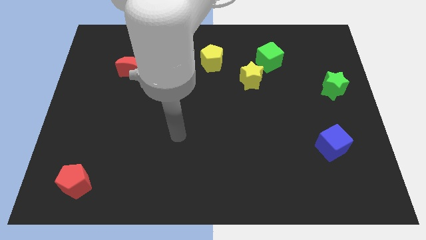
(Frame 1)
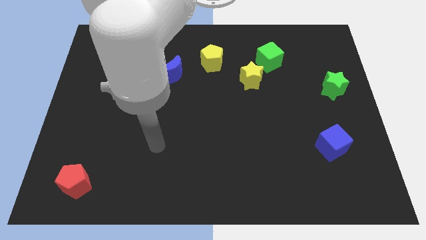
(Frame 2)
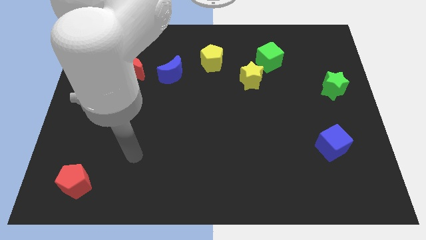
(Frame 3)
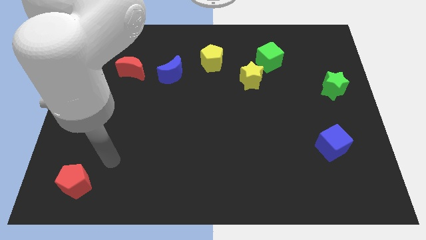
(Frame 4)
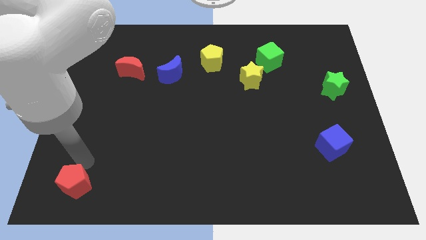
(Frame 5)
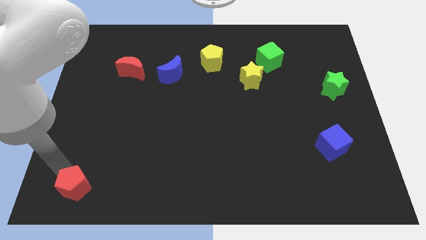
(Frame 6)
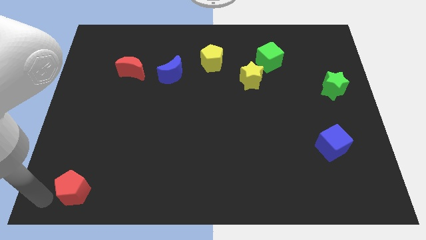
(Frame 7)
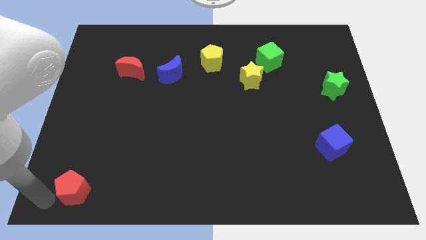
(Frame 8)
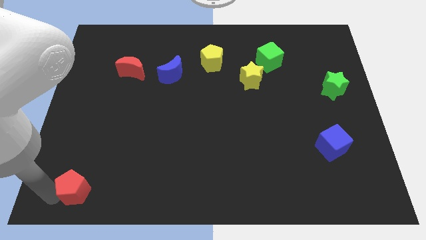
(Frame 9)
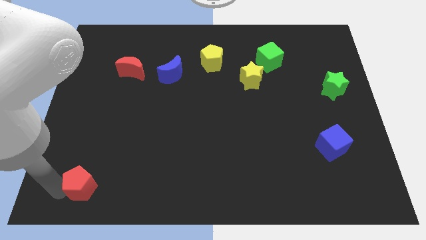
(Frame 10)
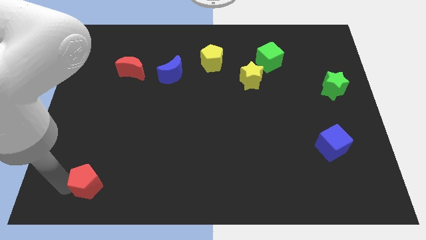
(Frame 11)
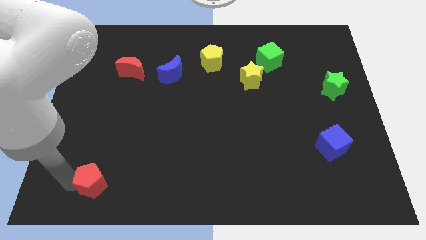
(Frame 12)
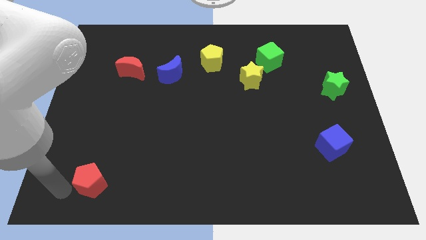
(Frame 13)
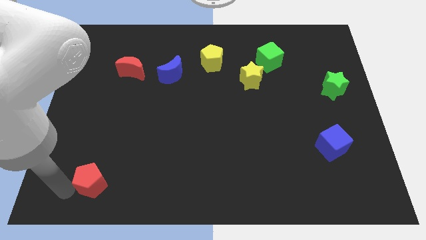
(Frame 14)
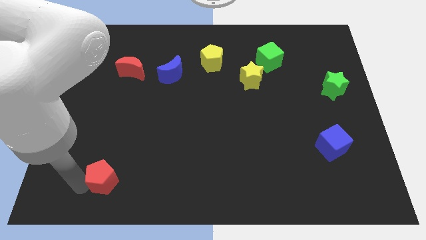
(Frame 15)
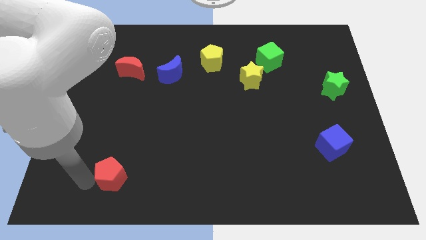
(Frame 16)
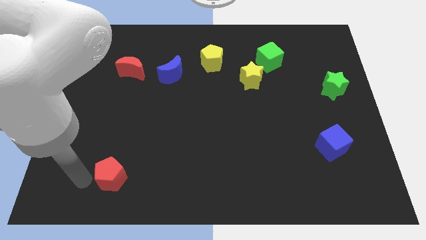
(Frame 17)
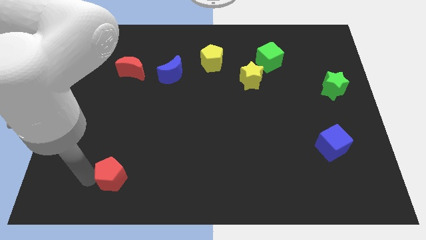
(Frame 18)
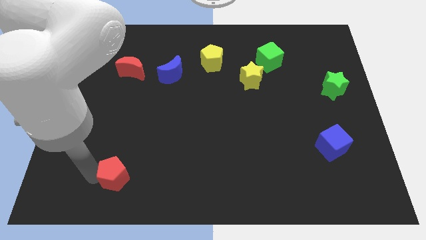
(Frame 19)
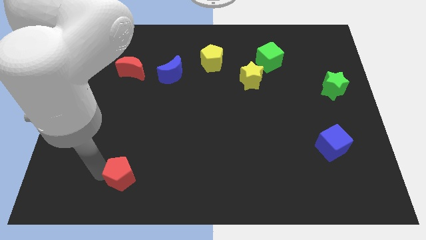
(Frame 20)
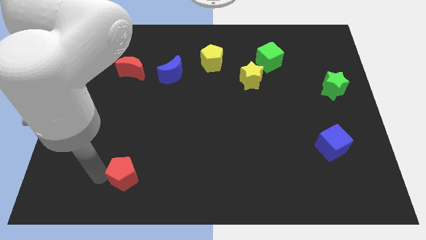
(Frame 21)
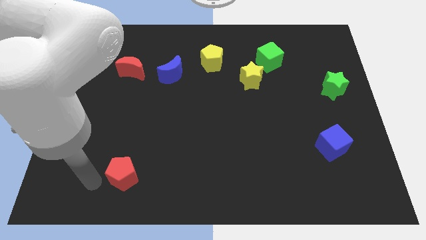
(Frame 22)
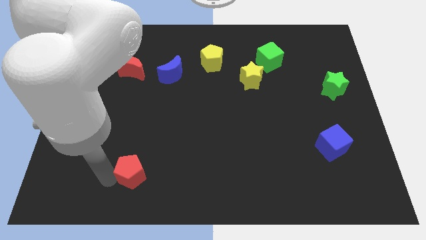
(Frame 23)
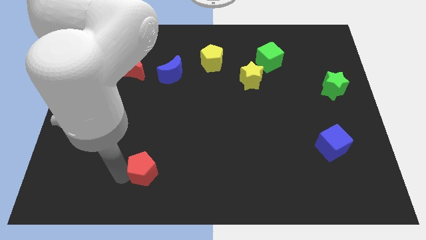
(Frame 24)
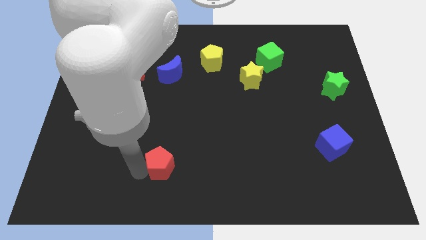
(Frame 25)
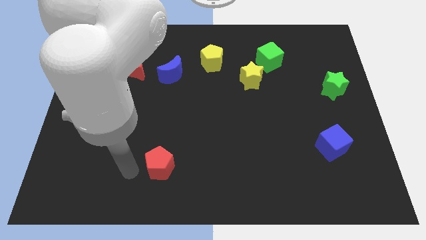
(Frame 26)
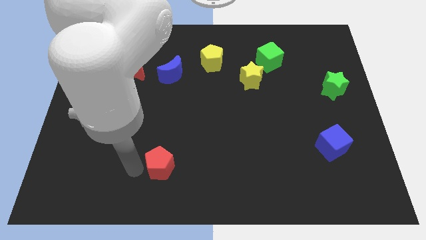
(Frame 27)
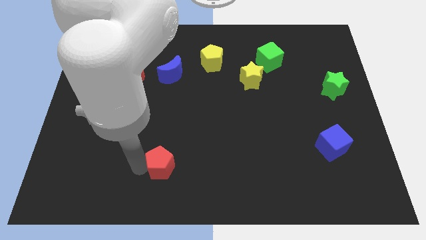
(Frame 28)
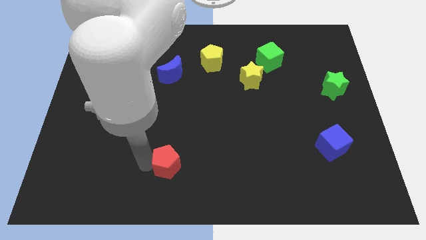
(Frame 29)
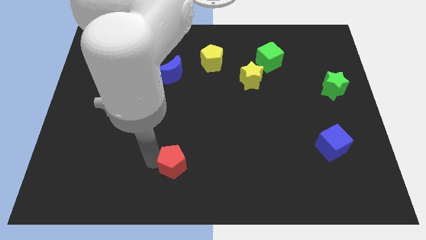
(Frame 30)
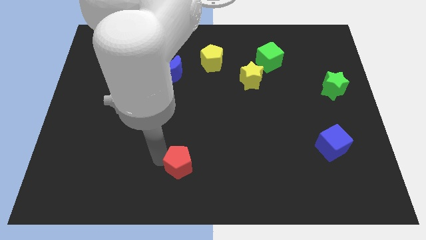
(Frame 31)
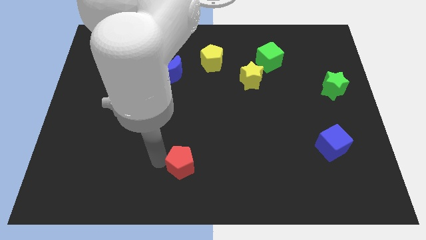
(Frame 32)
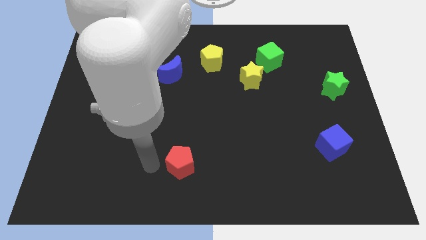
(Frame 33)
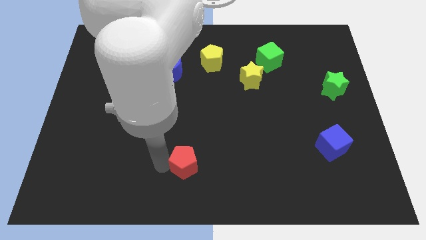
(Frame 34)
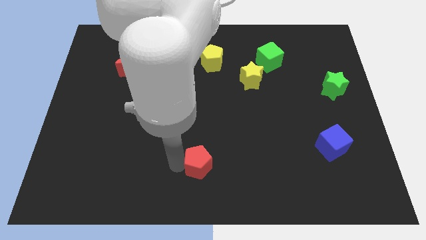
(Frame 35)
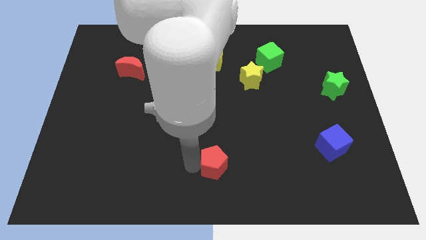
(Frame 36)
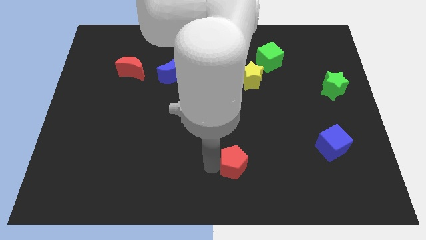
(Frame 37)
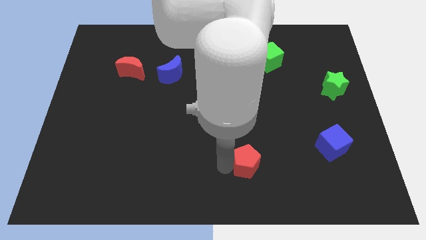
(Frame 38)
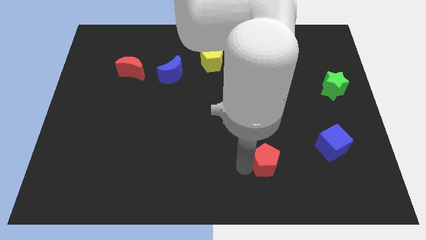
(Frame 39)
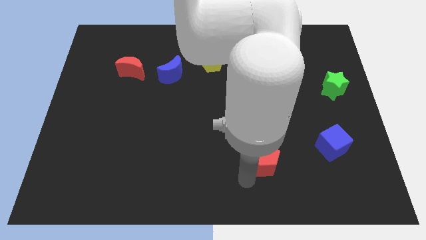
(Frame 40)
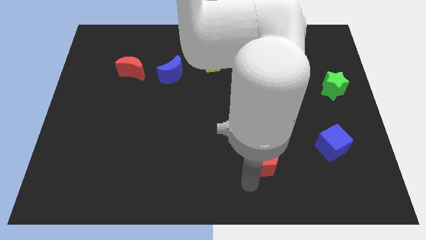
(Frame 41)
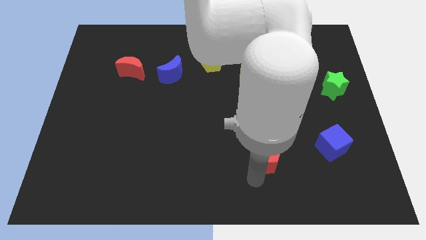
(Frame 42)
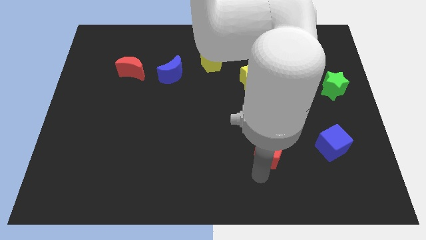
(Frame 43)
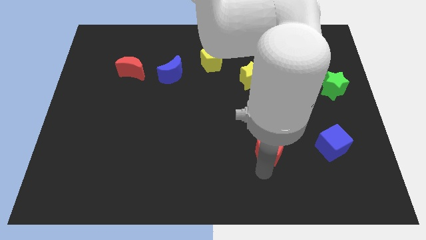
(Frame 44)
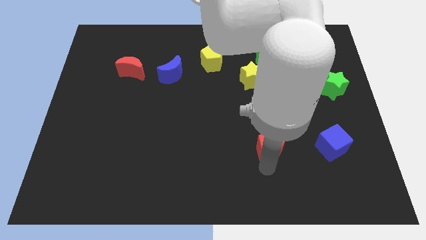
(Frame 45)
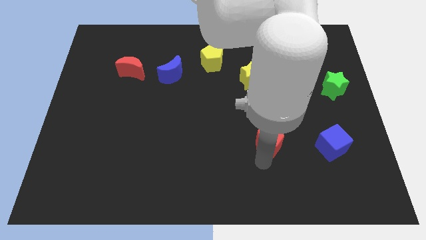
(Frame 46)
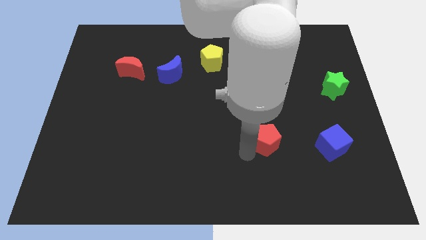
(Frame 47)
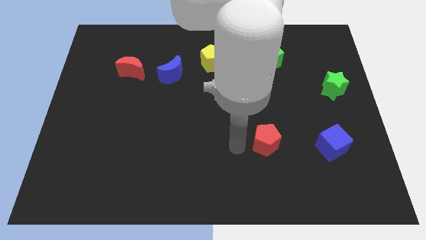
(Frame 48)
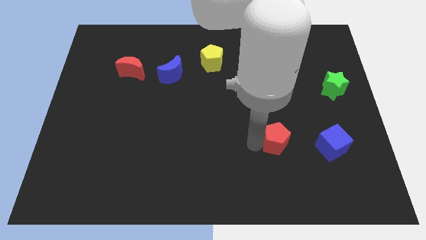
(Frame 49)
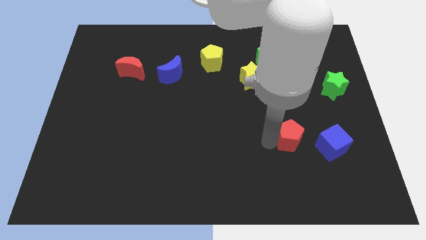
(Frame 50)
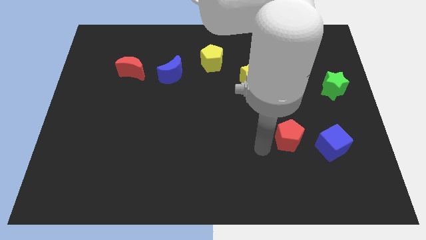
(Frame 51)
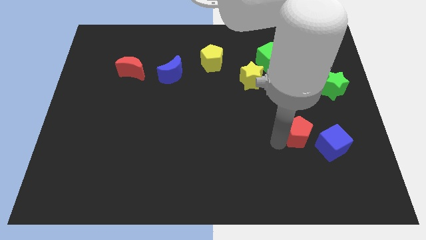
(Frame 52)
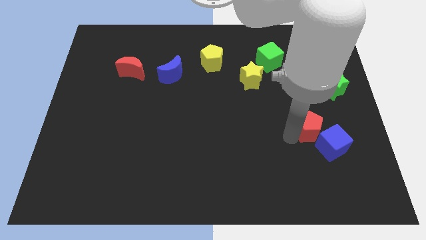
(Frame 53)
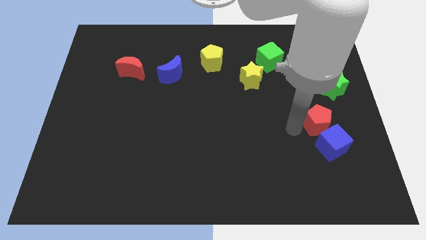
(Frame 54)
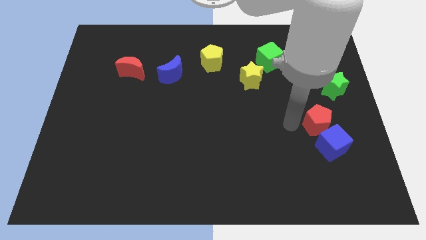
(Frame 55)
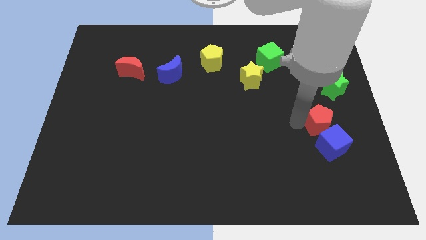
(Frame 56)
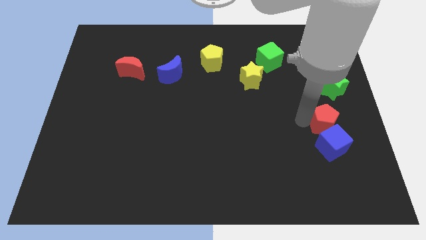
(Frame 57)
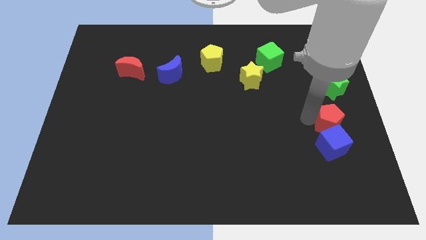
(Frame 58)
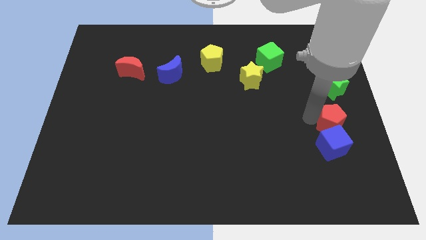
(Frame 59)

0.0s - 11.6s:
slide the red pentagon to the center right
